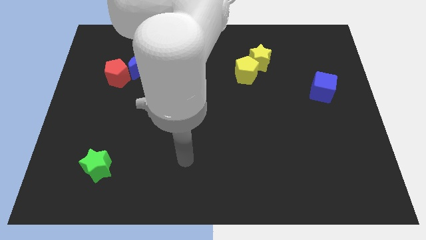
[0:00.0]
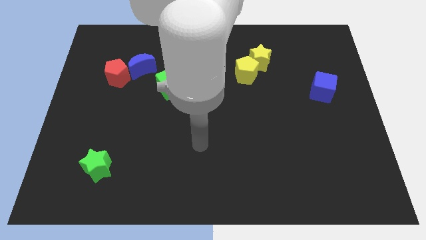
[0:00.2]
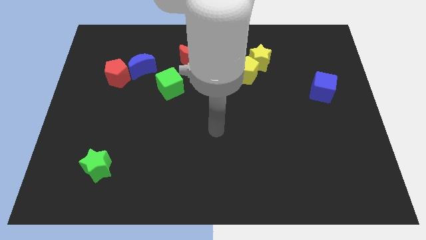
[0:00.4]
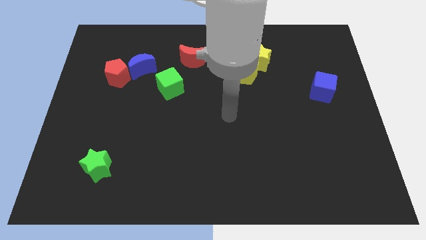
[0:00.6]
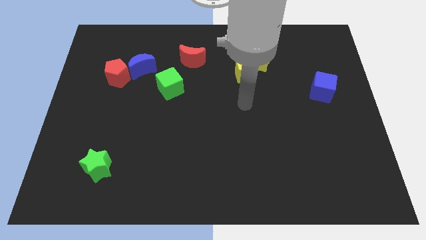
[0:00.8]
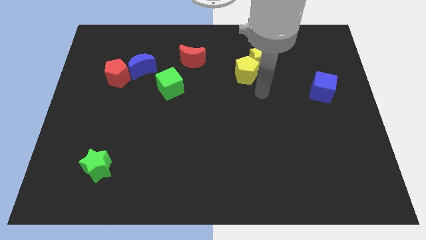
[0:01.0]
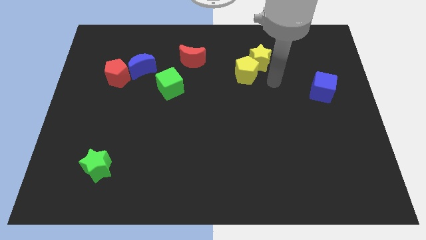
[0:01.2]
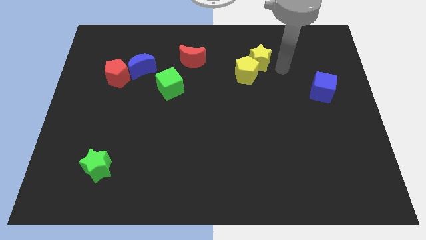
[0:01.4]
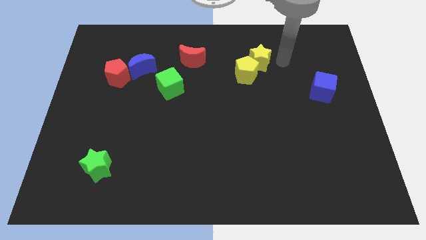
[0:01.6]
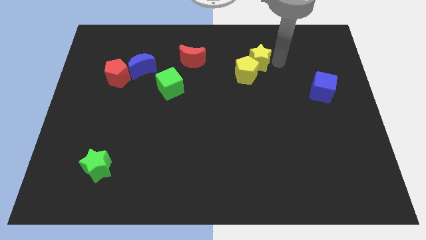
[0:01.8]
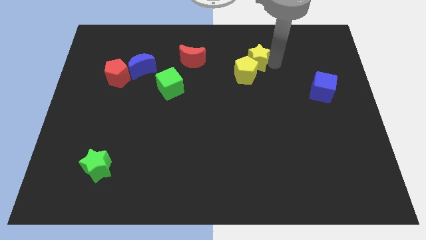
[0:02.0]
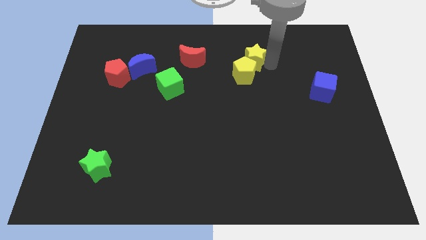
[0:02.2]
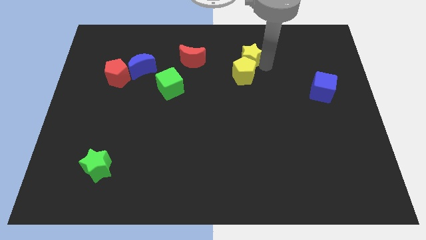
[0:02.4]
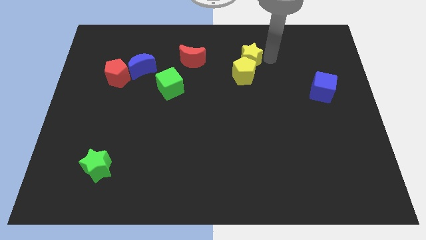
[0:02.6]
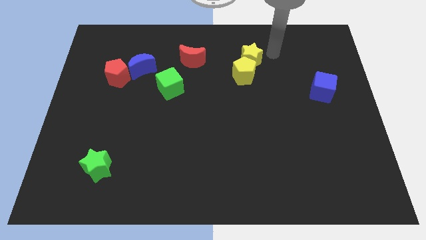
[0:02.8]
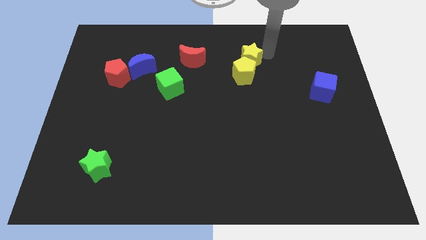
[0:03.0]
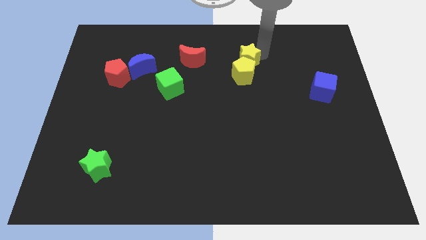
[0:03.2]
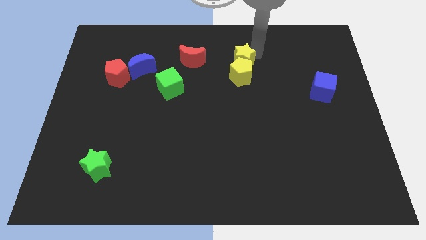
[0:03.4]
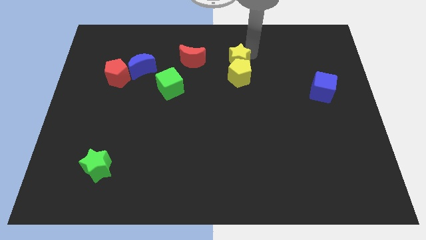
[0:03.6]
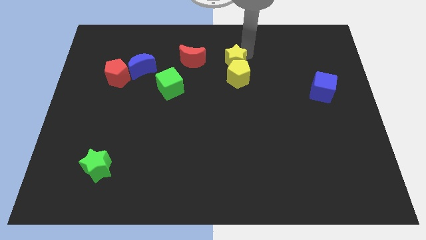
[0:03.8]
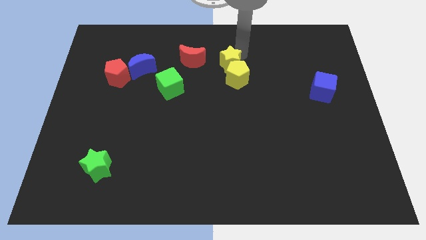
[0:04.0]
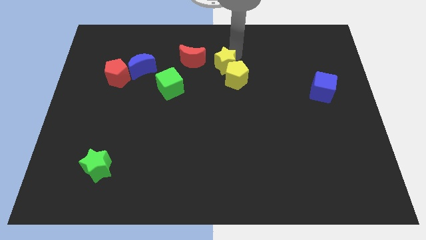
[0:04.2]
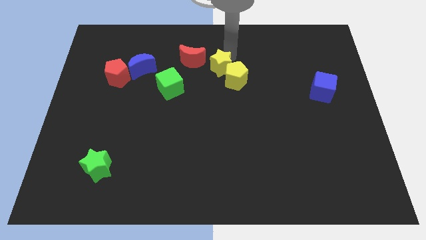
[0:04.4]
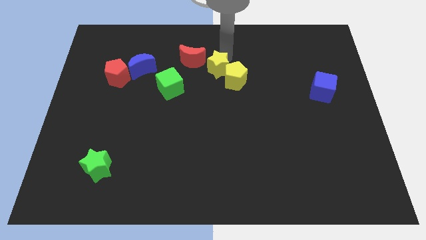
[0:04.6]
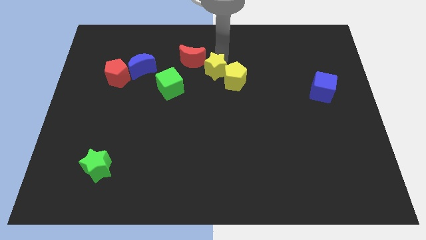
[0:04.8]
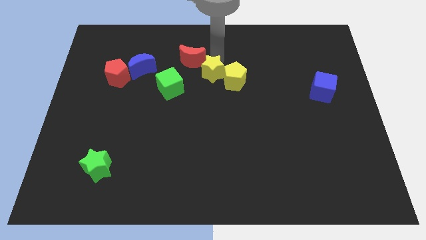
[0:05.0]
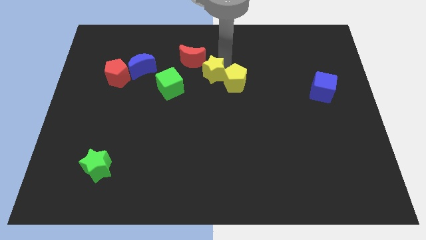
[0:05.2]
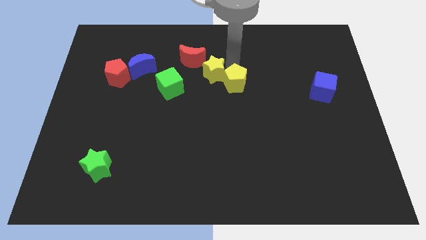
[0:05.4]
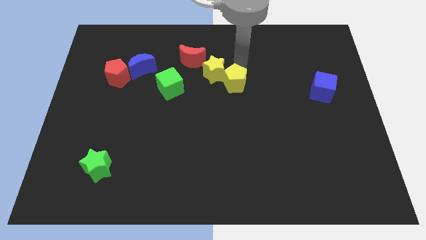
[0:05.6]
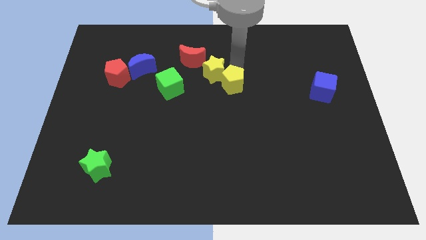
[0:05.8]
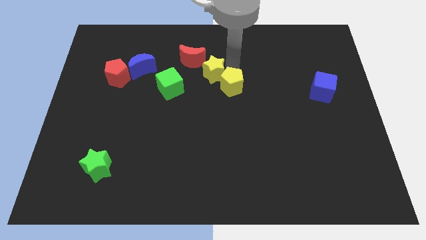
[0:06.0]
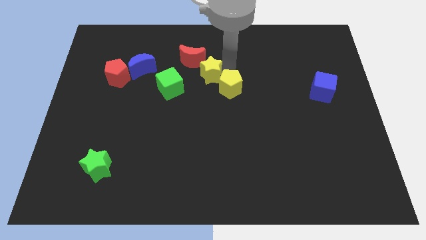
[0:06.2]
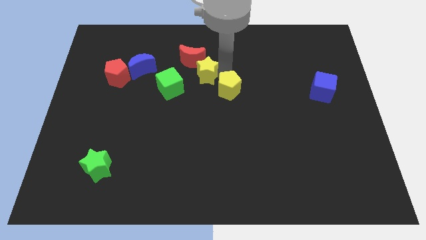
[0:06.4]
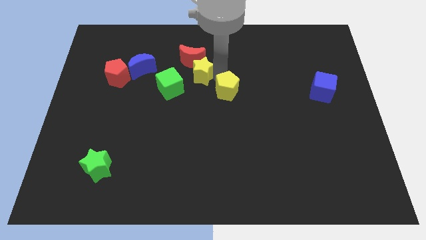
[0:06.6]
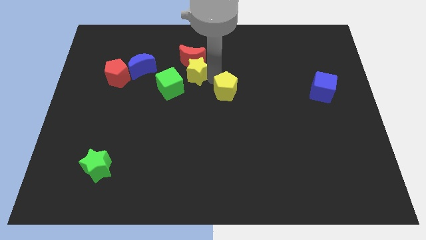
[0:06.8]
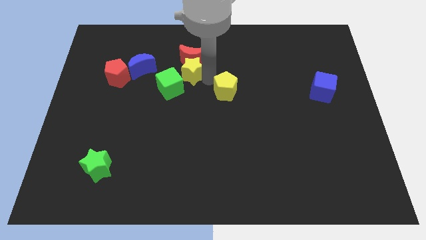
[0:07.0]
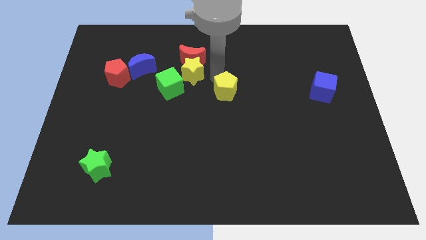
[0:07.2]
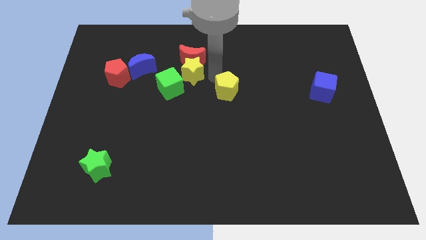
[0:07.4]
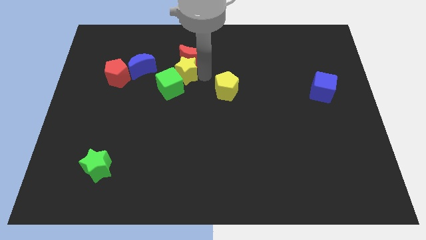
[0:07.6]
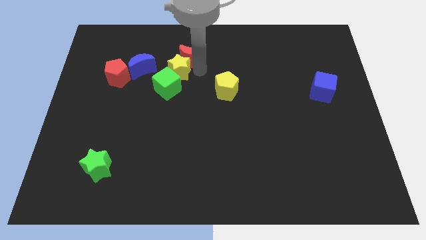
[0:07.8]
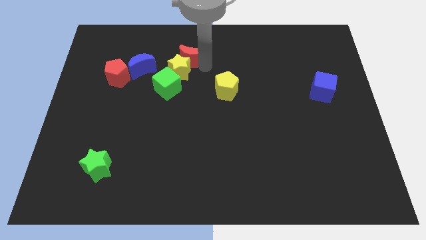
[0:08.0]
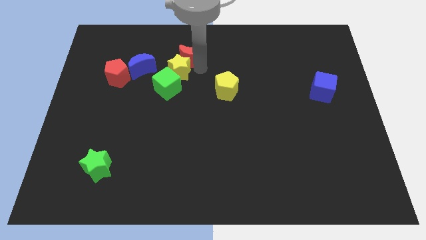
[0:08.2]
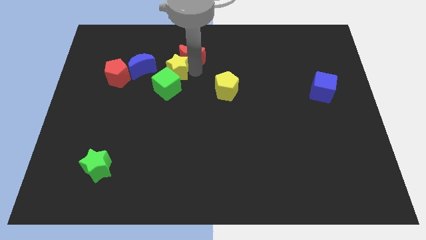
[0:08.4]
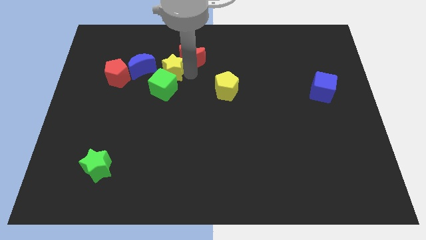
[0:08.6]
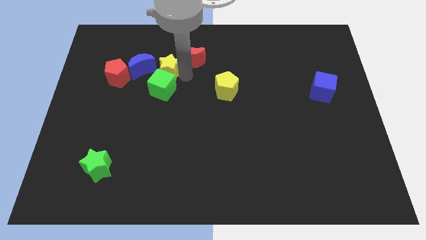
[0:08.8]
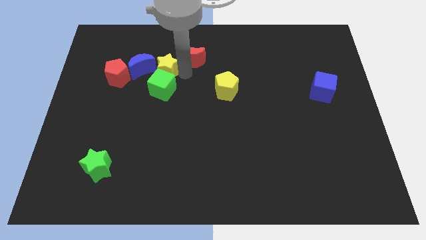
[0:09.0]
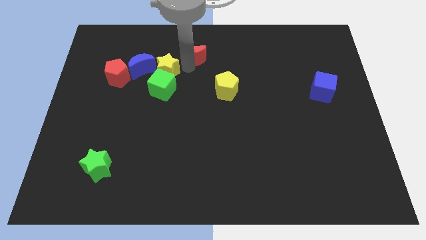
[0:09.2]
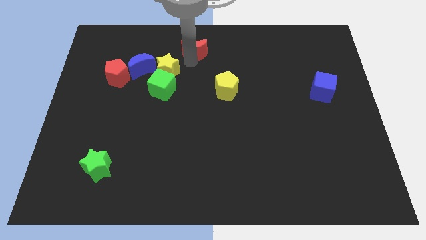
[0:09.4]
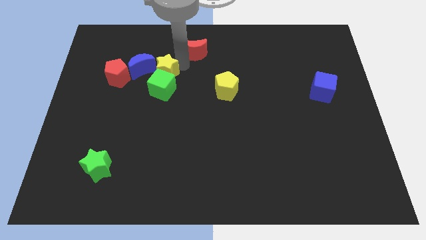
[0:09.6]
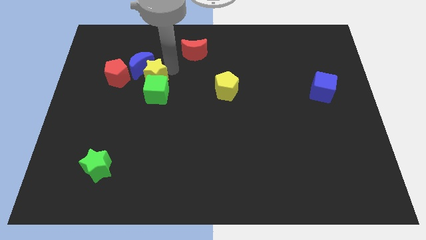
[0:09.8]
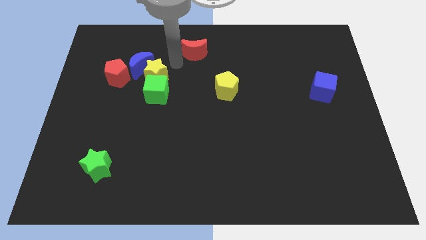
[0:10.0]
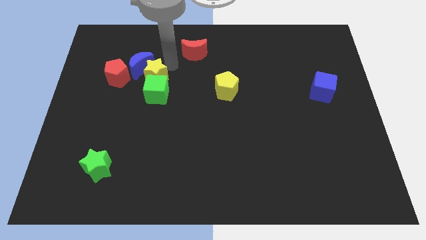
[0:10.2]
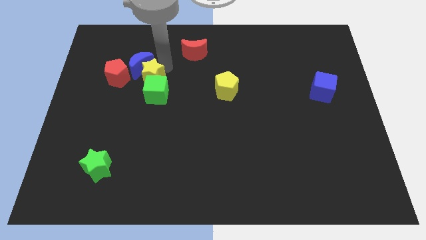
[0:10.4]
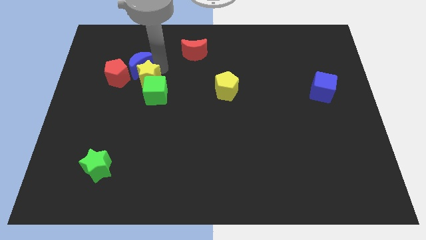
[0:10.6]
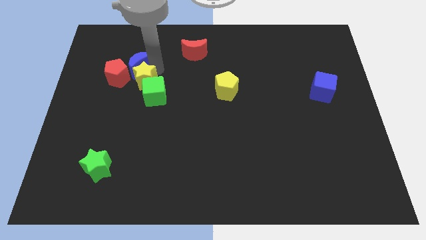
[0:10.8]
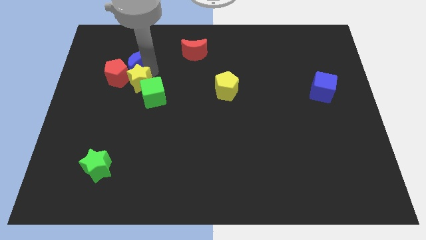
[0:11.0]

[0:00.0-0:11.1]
move the yellow star next to the red pentagon

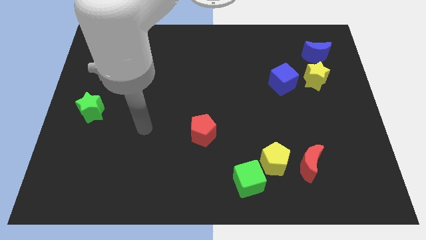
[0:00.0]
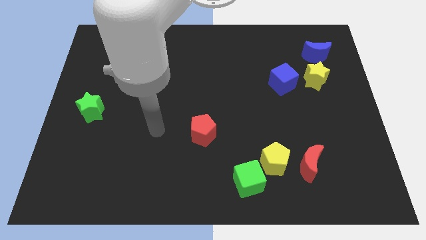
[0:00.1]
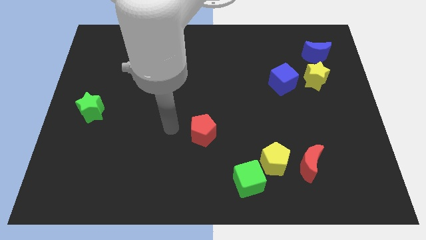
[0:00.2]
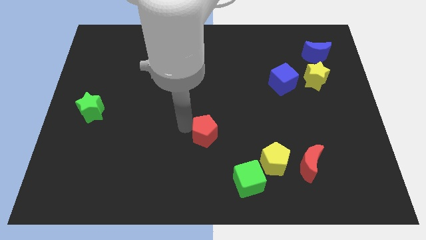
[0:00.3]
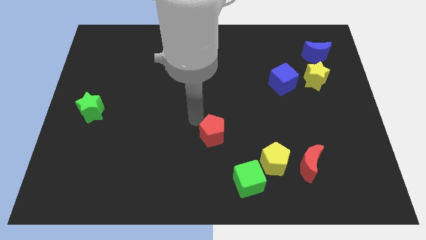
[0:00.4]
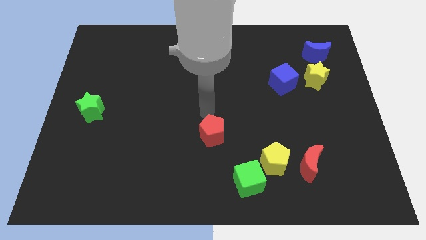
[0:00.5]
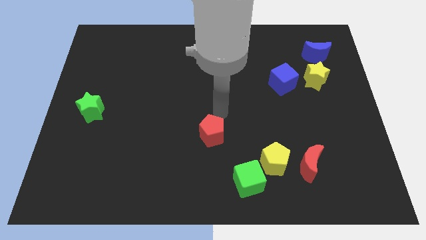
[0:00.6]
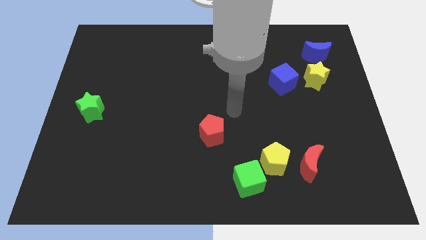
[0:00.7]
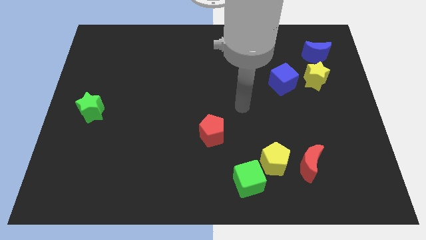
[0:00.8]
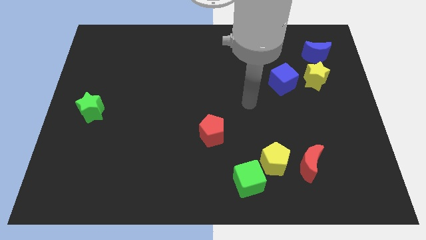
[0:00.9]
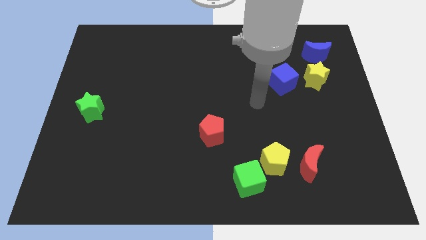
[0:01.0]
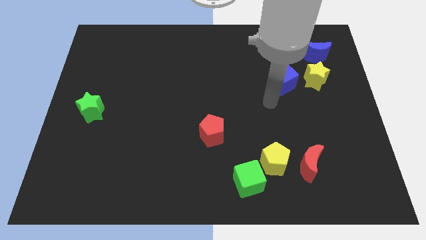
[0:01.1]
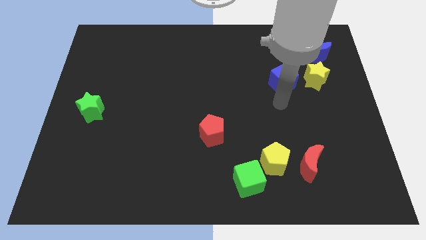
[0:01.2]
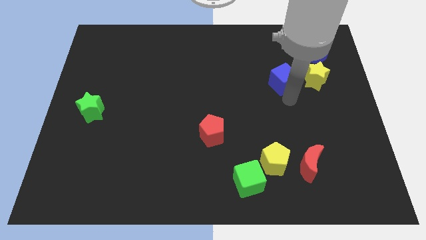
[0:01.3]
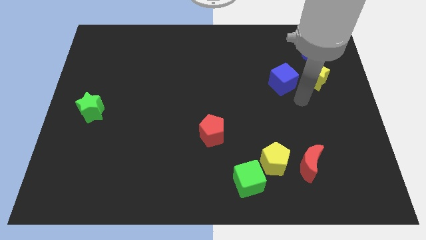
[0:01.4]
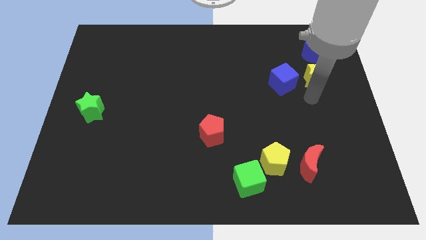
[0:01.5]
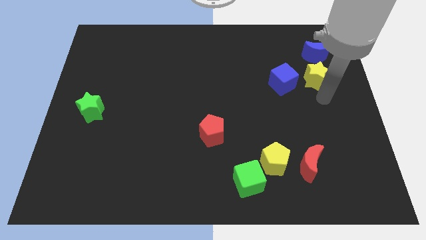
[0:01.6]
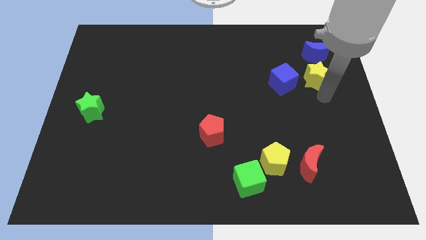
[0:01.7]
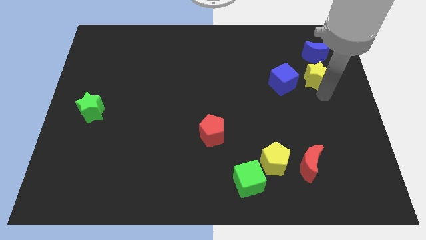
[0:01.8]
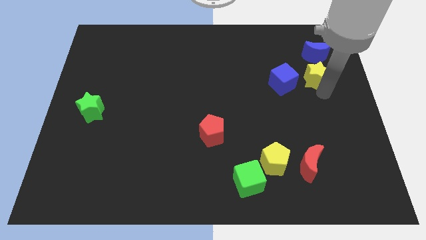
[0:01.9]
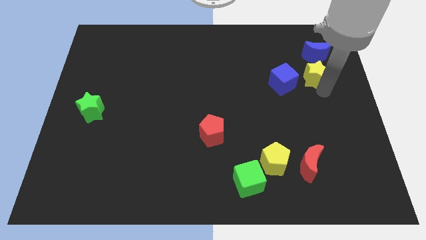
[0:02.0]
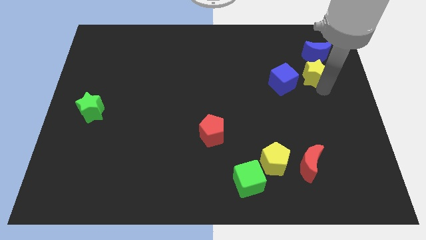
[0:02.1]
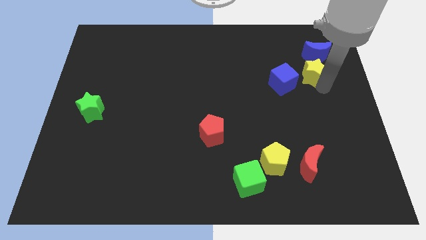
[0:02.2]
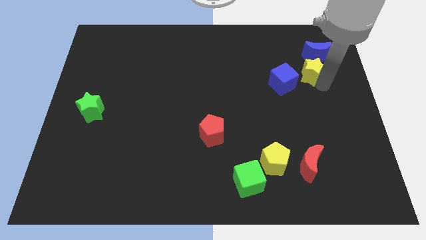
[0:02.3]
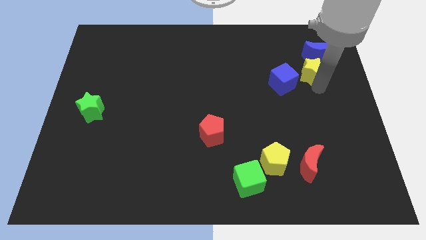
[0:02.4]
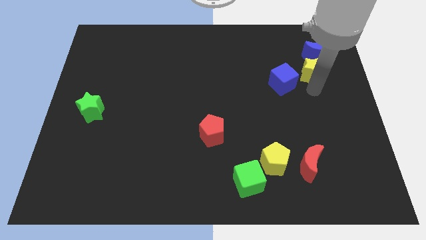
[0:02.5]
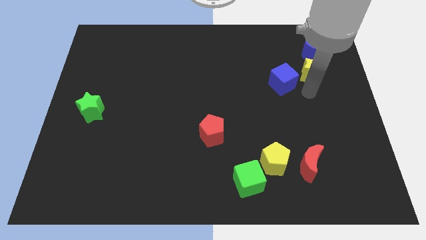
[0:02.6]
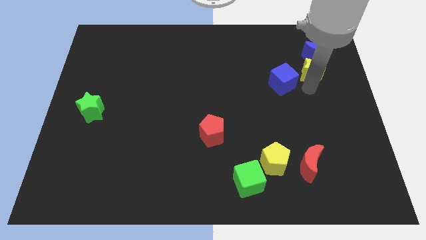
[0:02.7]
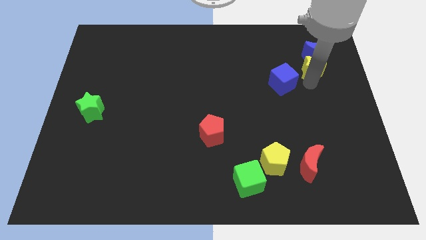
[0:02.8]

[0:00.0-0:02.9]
put the yellow star towards the blue moon
